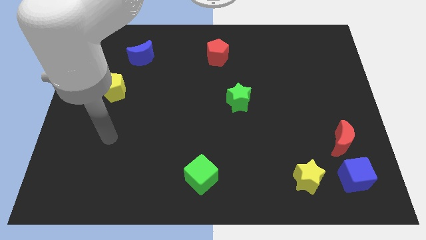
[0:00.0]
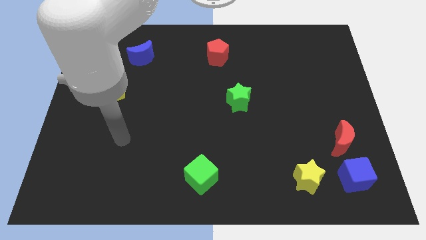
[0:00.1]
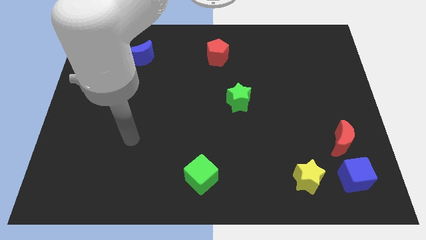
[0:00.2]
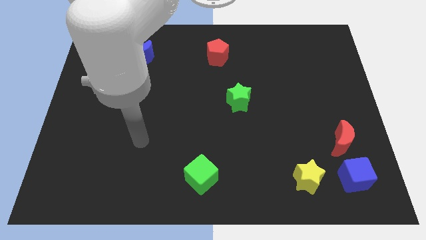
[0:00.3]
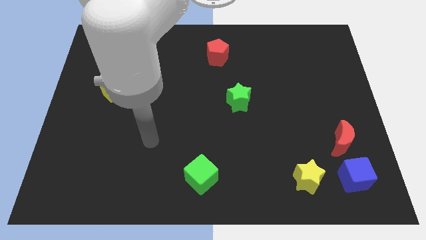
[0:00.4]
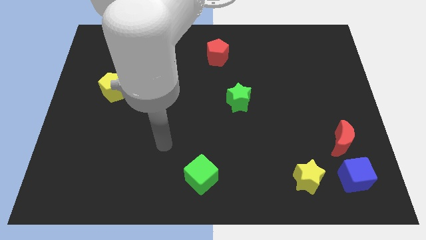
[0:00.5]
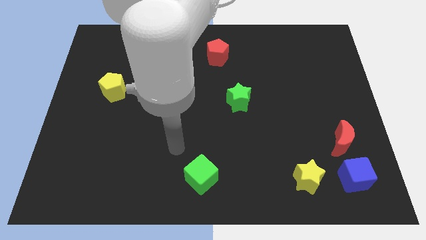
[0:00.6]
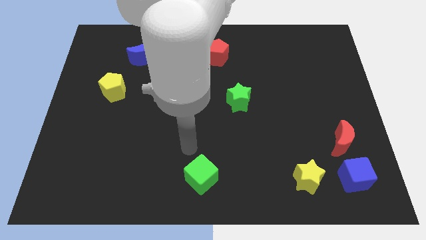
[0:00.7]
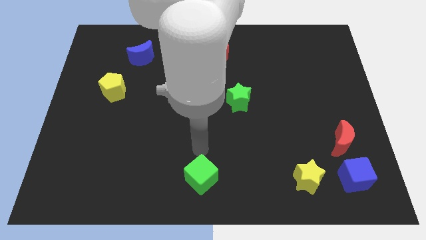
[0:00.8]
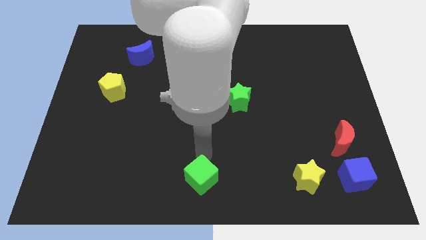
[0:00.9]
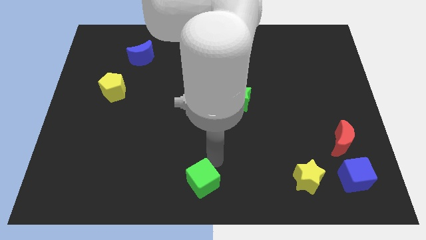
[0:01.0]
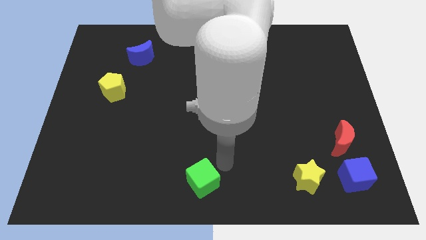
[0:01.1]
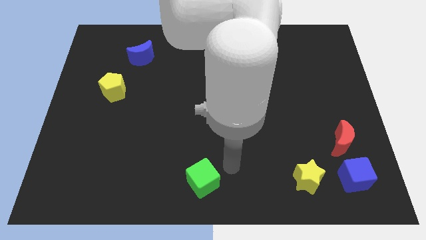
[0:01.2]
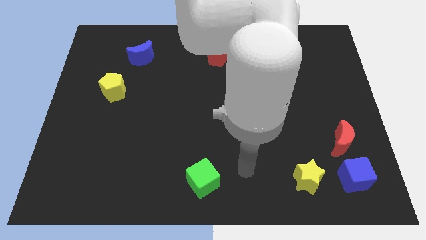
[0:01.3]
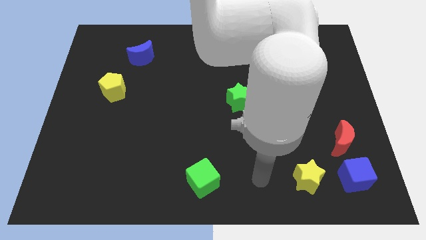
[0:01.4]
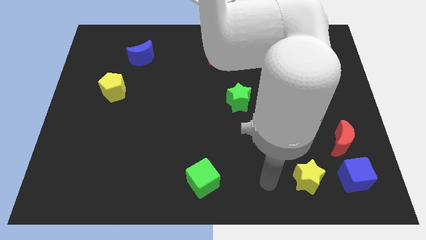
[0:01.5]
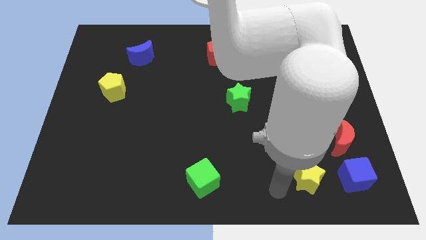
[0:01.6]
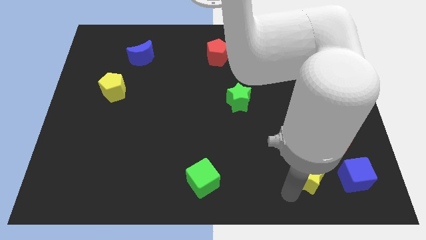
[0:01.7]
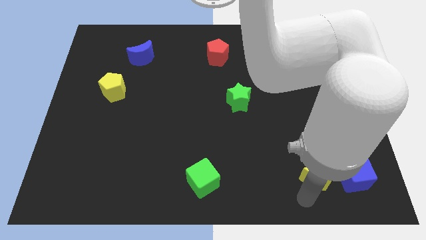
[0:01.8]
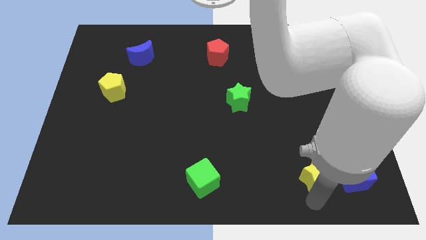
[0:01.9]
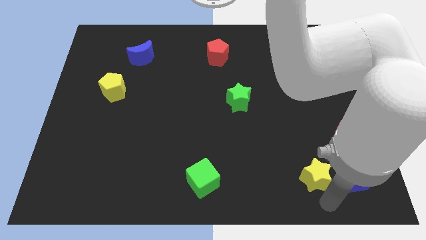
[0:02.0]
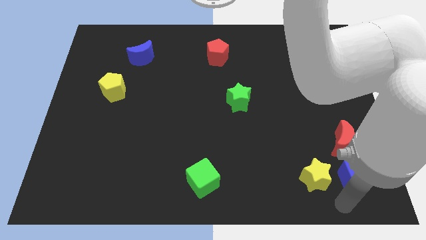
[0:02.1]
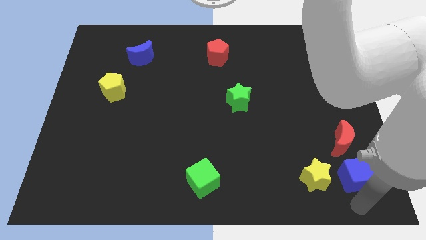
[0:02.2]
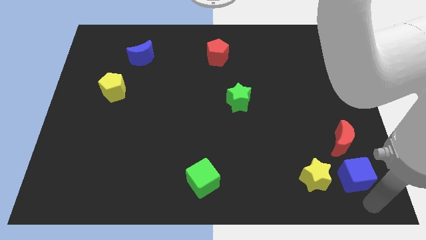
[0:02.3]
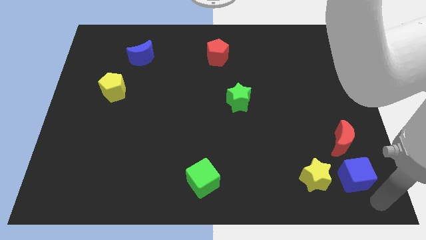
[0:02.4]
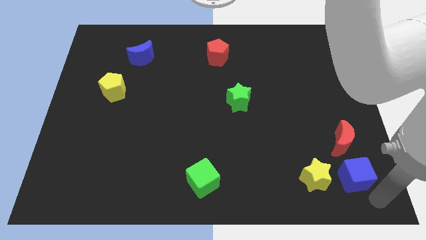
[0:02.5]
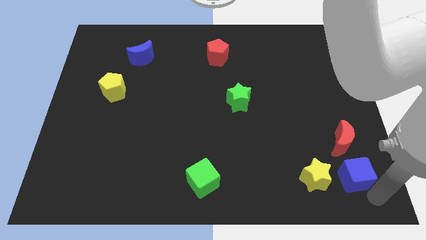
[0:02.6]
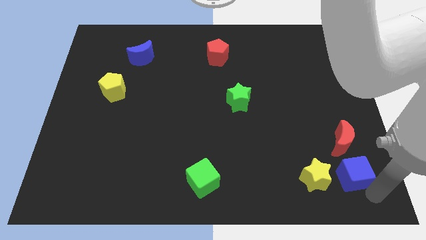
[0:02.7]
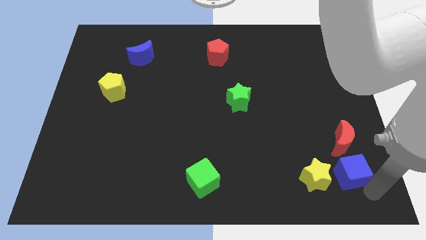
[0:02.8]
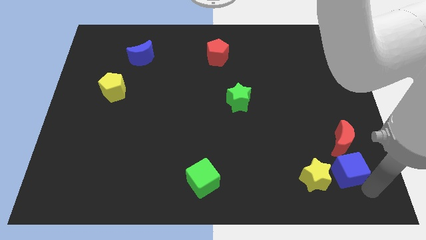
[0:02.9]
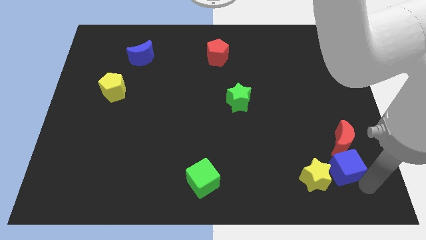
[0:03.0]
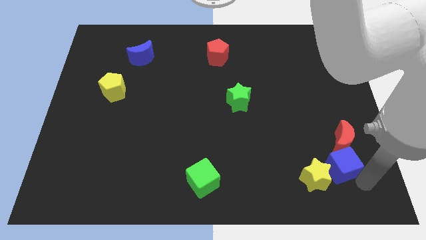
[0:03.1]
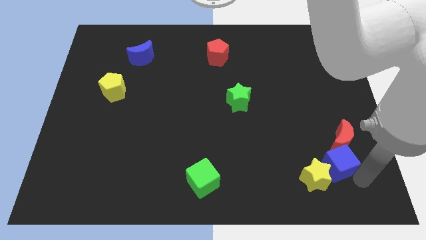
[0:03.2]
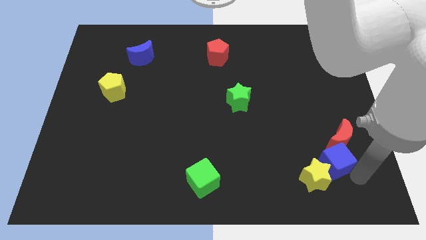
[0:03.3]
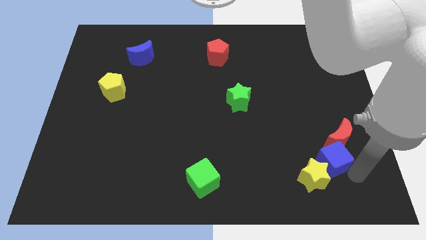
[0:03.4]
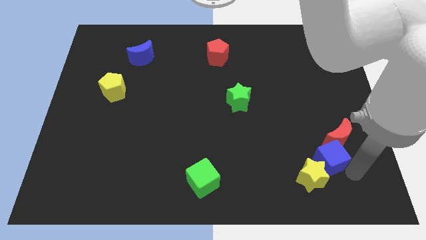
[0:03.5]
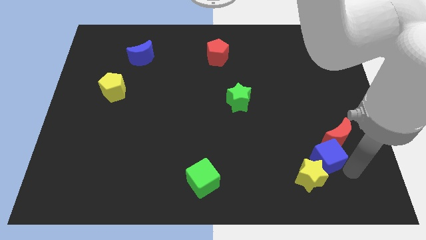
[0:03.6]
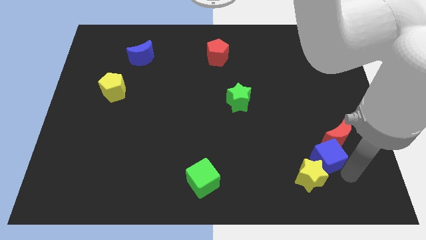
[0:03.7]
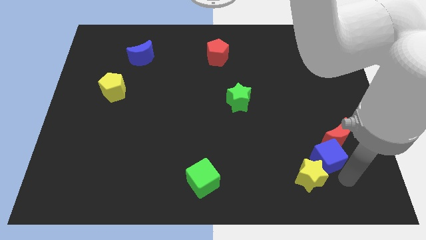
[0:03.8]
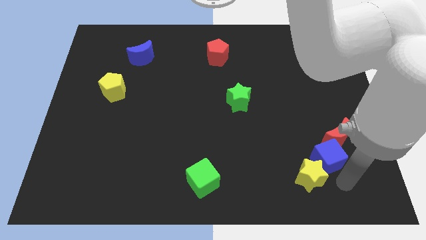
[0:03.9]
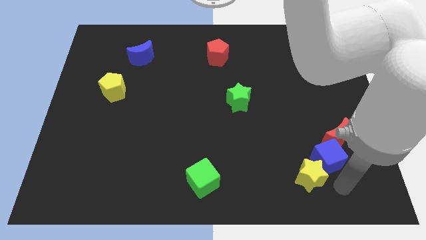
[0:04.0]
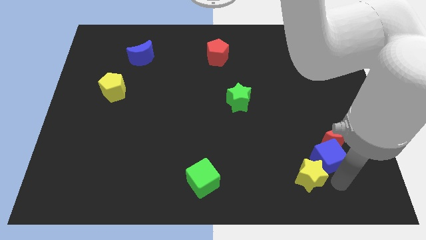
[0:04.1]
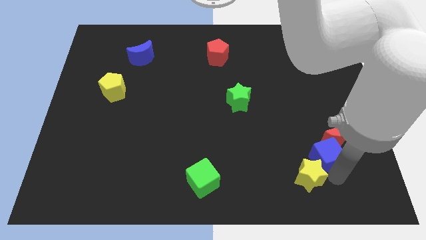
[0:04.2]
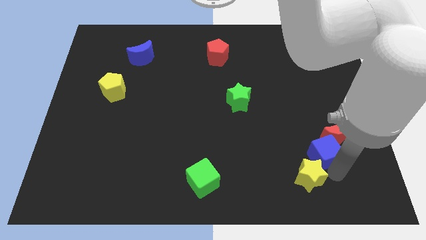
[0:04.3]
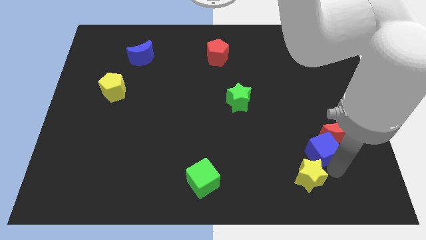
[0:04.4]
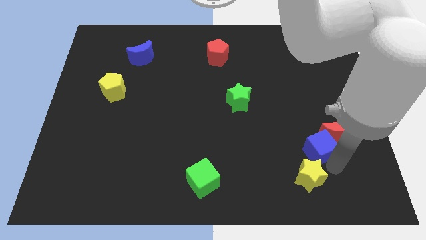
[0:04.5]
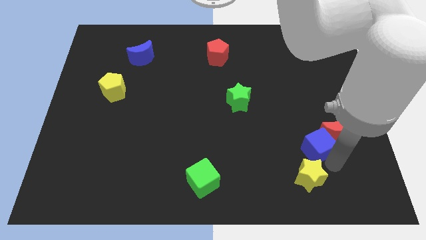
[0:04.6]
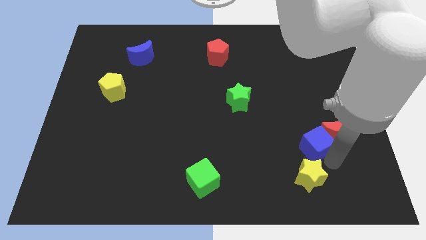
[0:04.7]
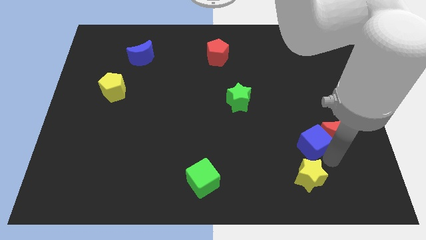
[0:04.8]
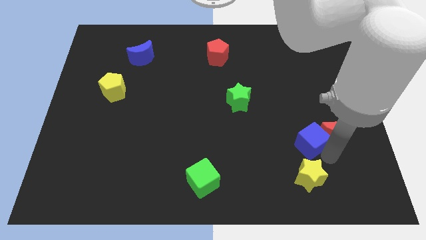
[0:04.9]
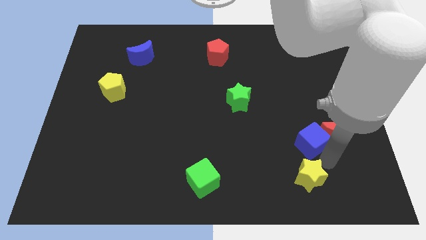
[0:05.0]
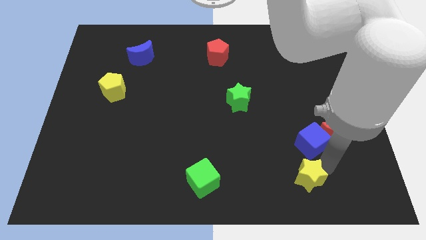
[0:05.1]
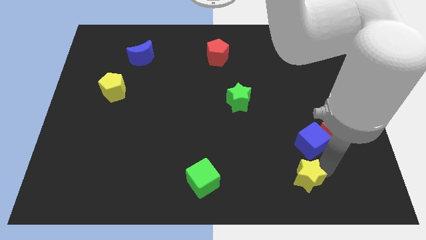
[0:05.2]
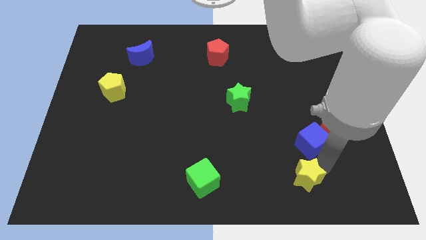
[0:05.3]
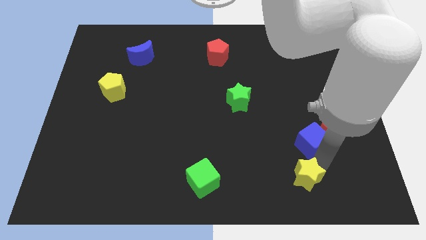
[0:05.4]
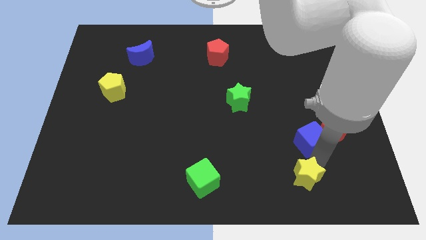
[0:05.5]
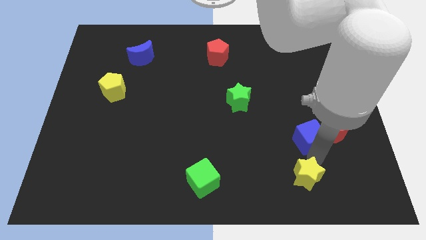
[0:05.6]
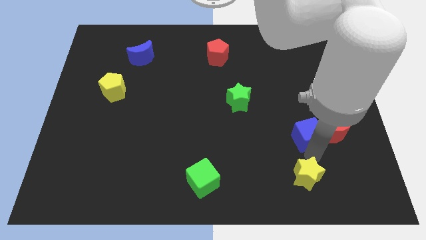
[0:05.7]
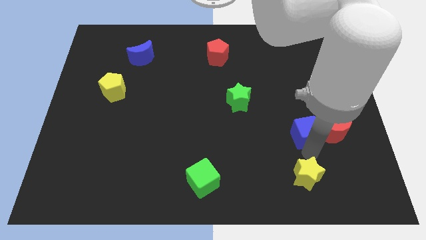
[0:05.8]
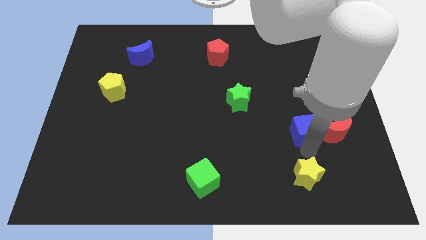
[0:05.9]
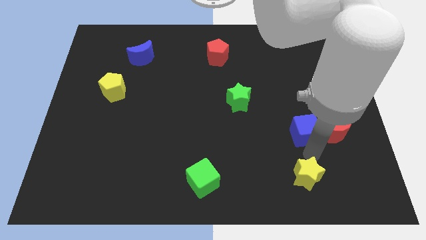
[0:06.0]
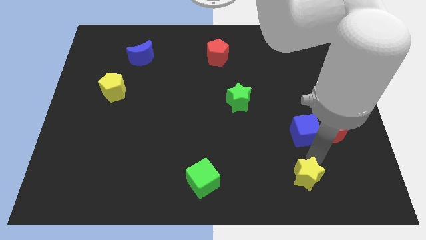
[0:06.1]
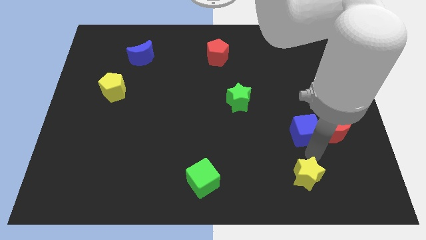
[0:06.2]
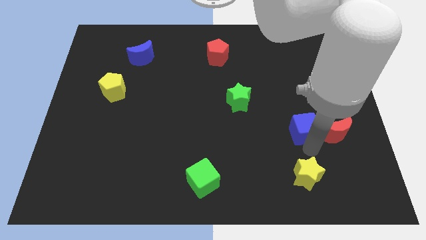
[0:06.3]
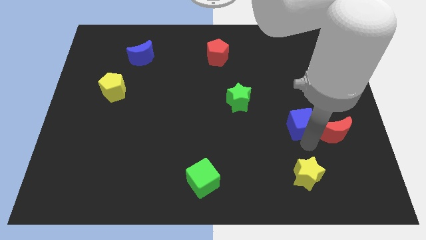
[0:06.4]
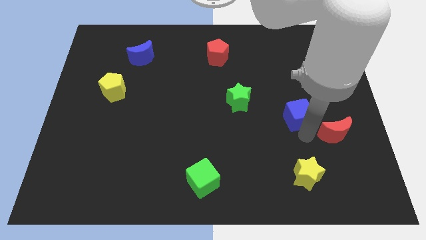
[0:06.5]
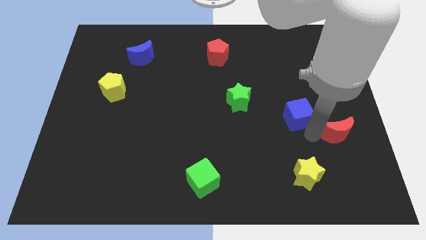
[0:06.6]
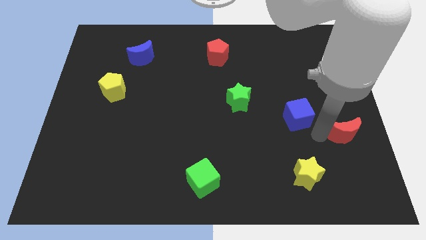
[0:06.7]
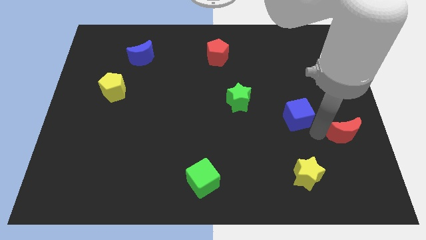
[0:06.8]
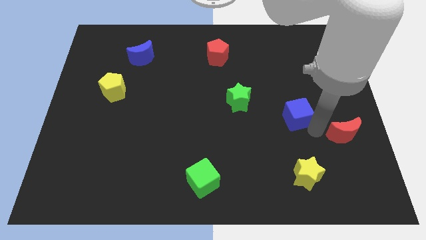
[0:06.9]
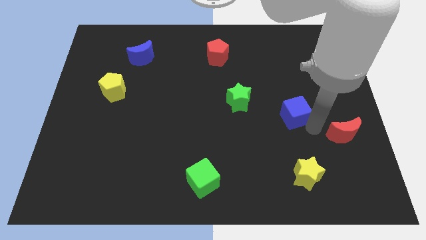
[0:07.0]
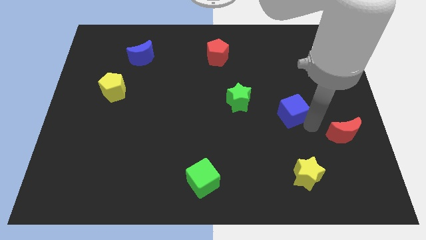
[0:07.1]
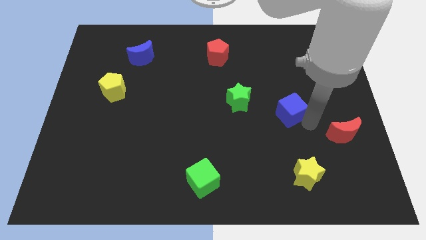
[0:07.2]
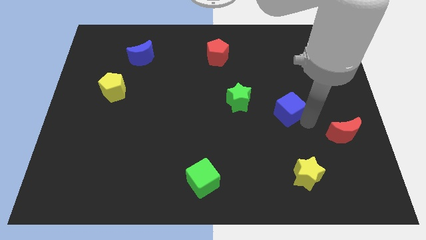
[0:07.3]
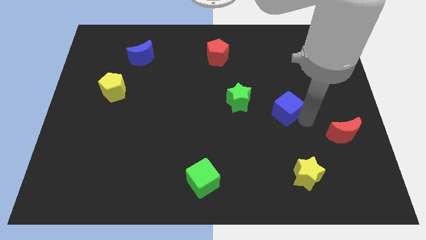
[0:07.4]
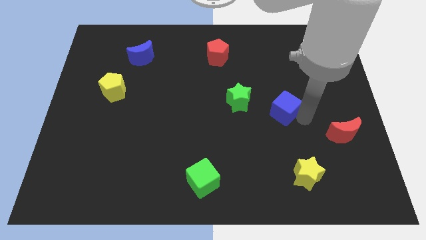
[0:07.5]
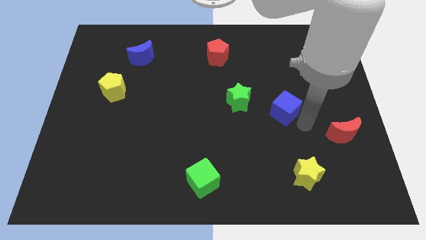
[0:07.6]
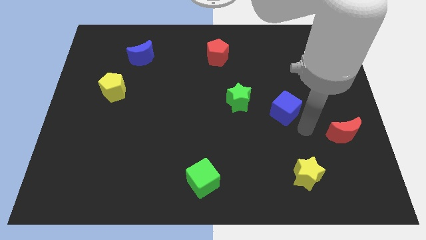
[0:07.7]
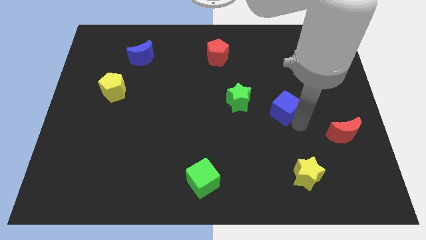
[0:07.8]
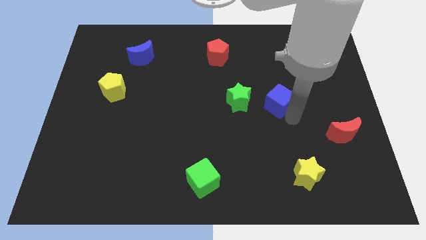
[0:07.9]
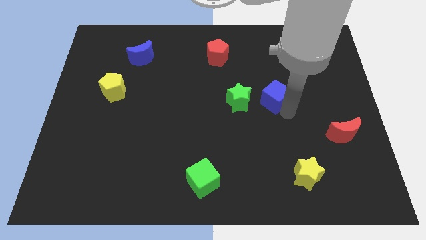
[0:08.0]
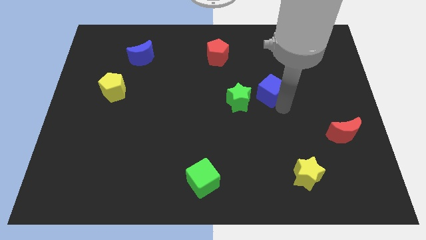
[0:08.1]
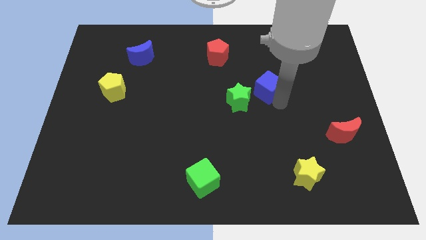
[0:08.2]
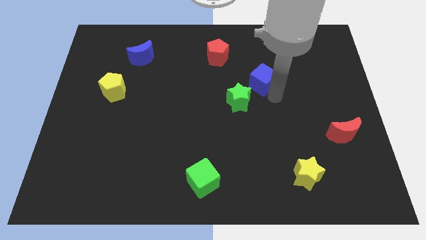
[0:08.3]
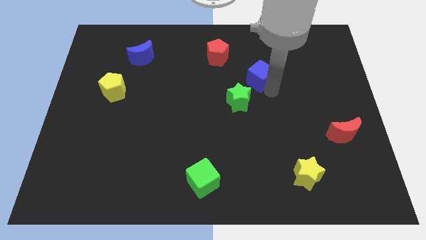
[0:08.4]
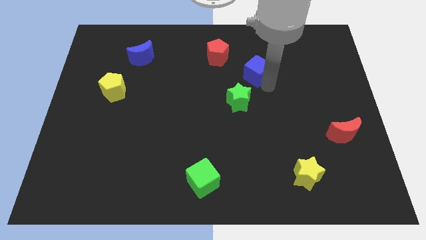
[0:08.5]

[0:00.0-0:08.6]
slide the blue cube diagonally down and to the right of the red pentagon
